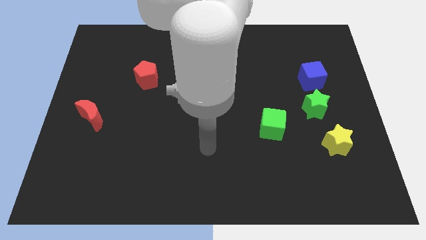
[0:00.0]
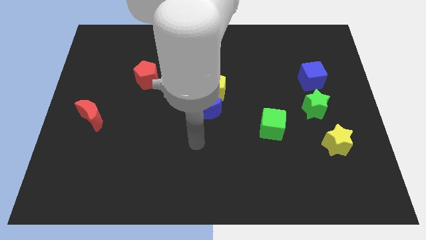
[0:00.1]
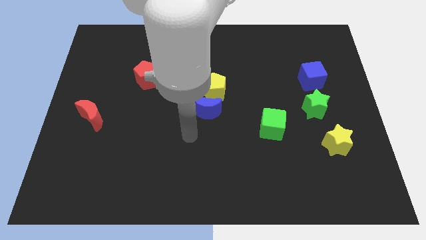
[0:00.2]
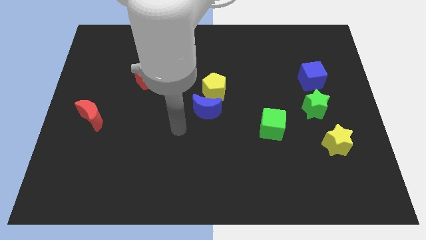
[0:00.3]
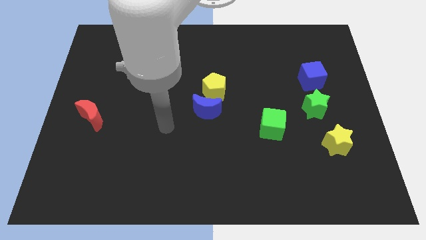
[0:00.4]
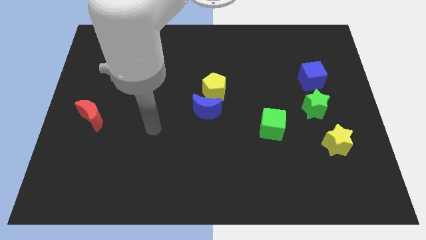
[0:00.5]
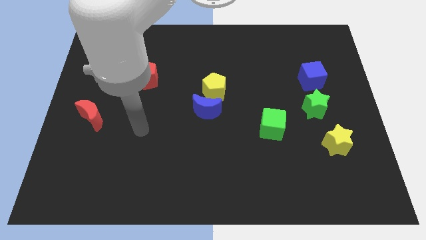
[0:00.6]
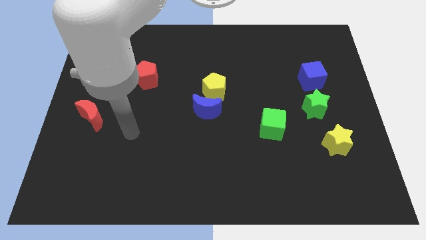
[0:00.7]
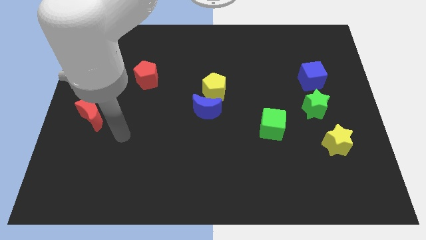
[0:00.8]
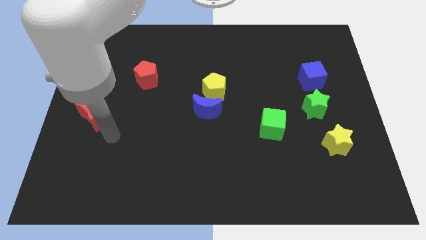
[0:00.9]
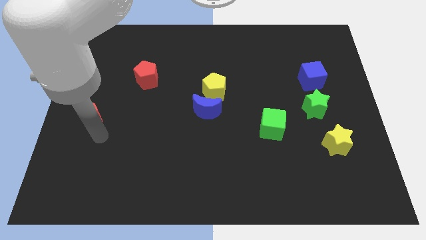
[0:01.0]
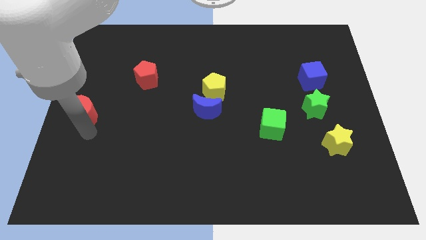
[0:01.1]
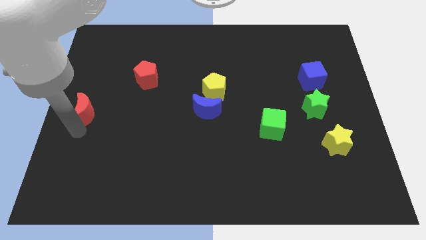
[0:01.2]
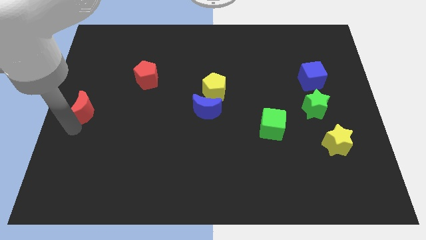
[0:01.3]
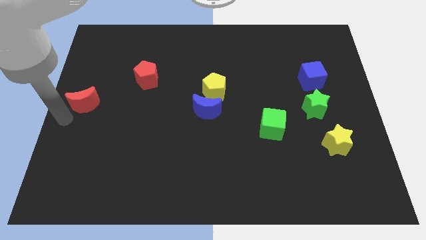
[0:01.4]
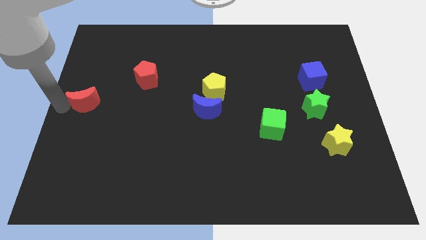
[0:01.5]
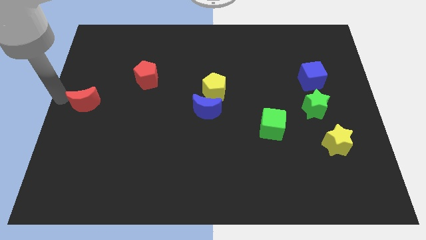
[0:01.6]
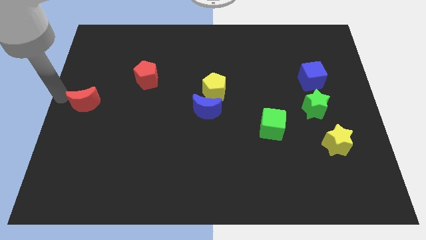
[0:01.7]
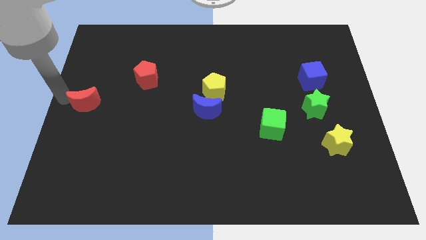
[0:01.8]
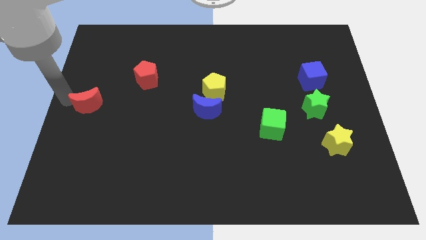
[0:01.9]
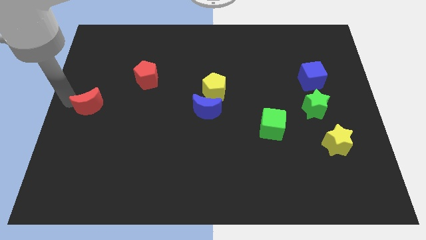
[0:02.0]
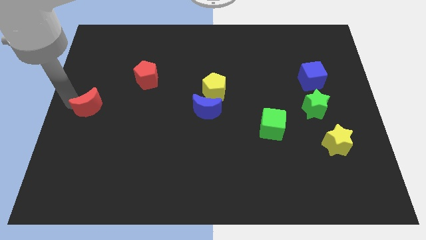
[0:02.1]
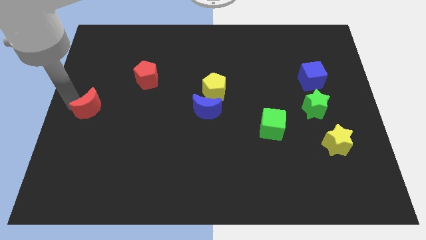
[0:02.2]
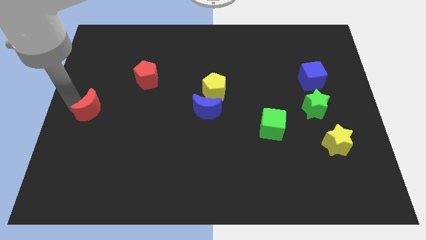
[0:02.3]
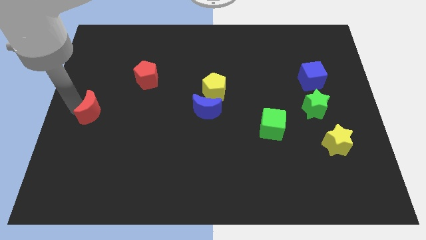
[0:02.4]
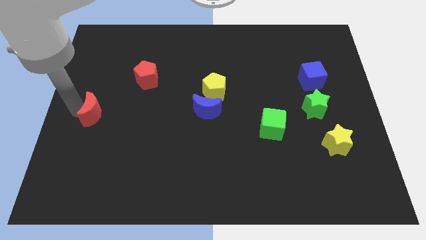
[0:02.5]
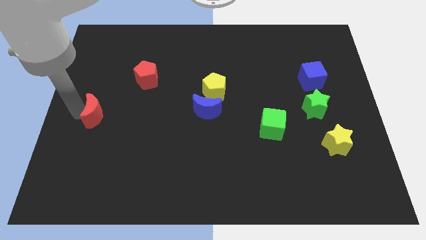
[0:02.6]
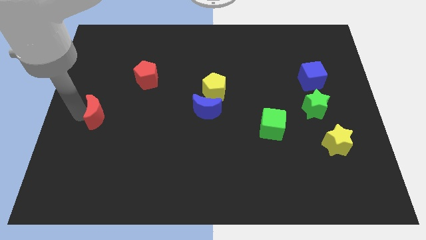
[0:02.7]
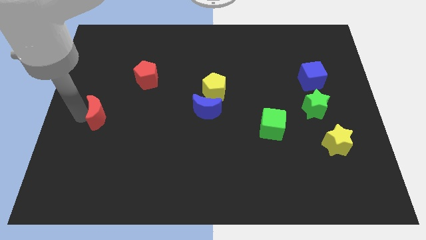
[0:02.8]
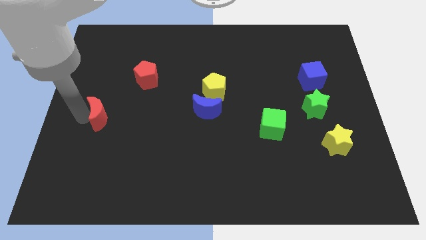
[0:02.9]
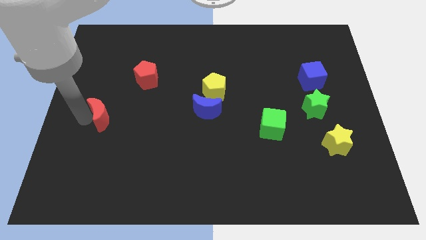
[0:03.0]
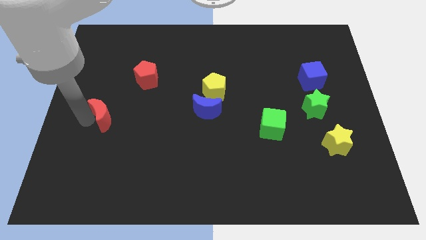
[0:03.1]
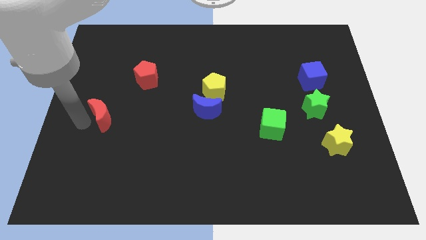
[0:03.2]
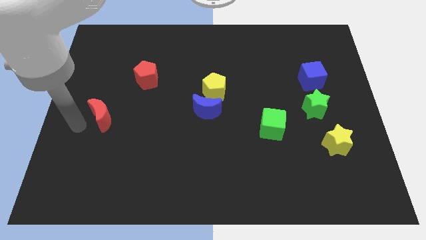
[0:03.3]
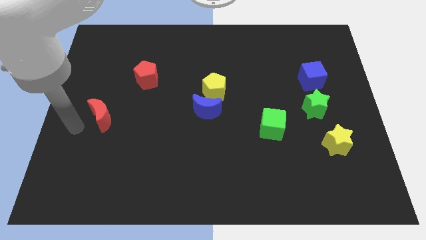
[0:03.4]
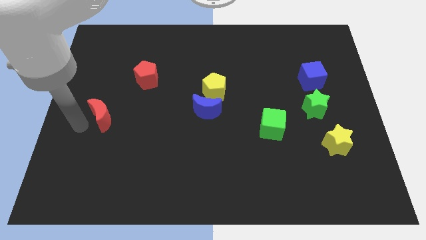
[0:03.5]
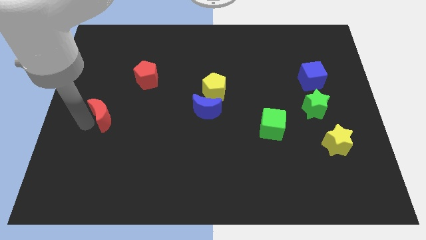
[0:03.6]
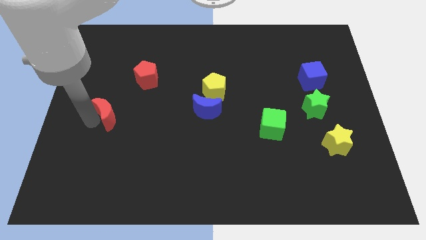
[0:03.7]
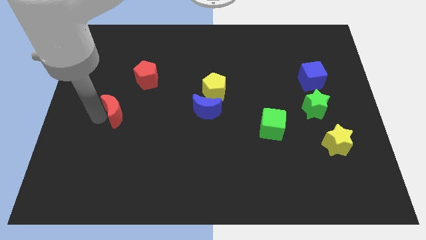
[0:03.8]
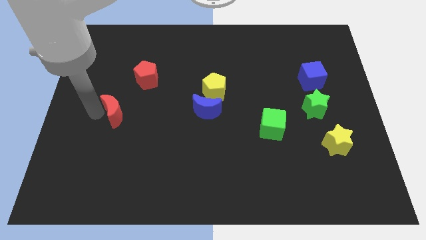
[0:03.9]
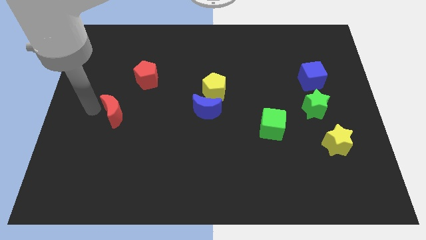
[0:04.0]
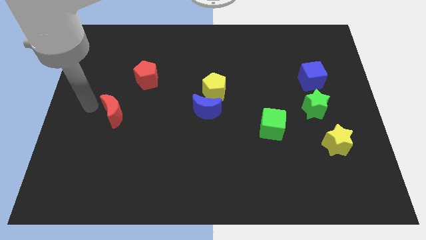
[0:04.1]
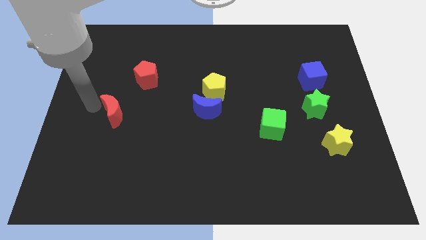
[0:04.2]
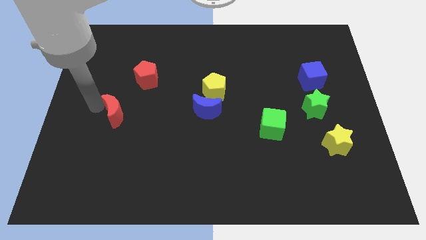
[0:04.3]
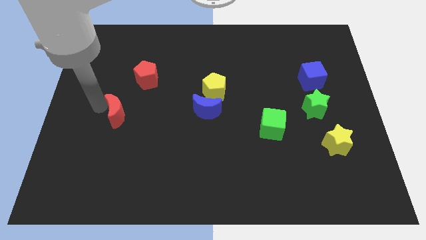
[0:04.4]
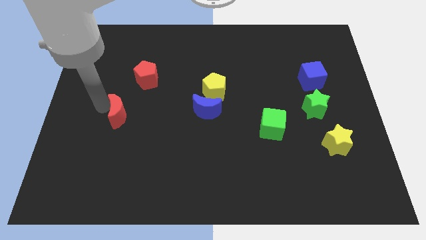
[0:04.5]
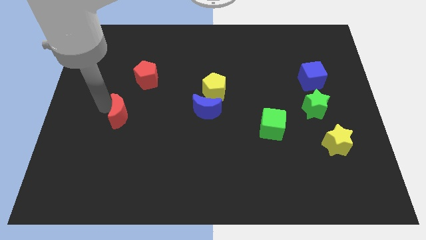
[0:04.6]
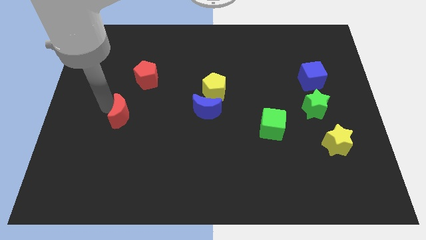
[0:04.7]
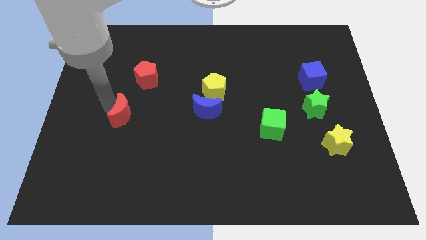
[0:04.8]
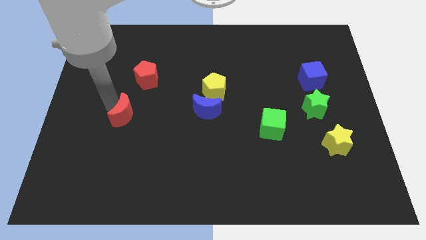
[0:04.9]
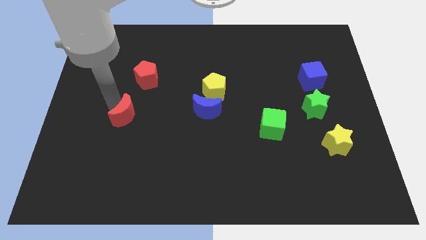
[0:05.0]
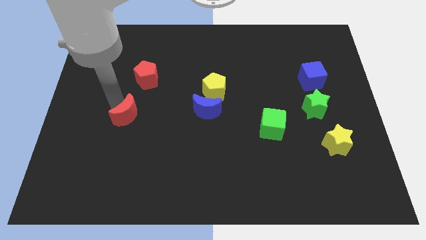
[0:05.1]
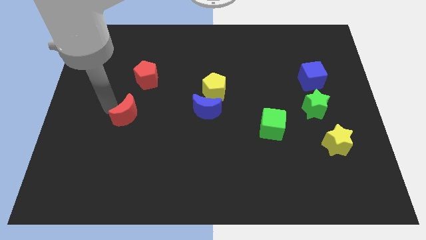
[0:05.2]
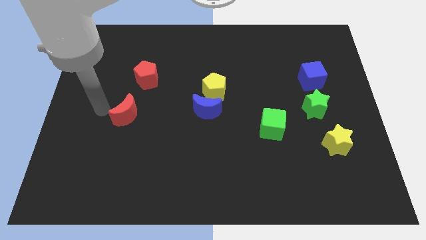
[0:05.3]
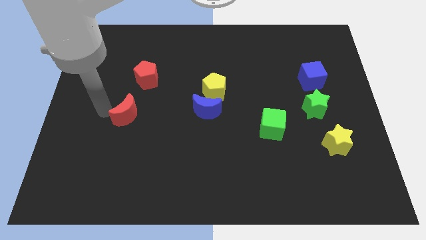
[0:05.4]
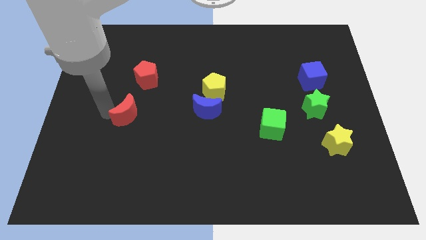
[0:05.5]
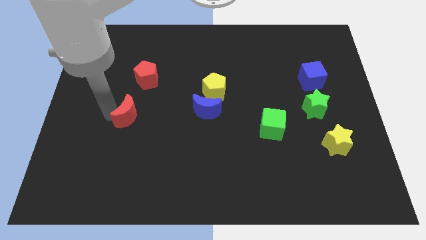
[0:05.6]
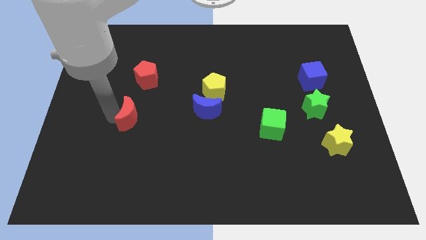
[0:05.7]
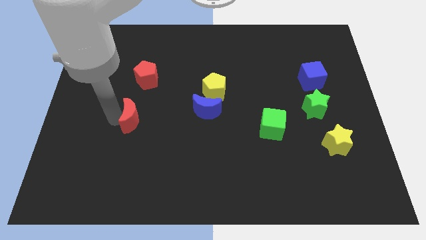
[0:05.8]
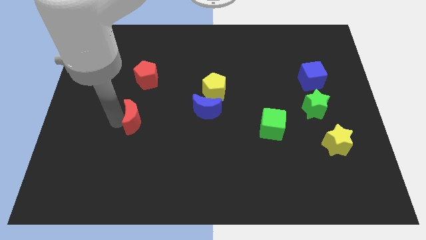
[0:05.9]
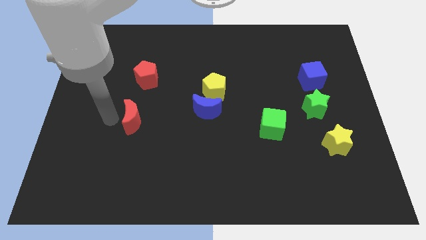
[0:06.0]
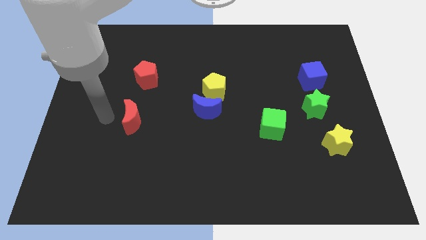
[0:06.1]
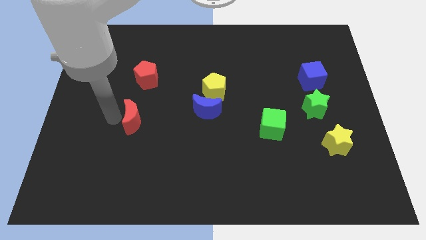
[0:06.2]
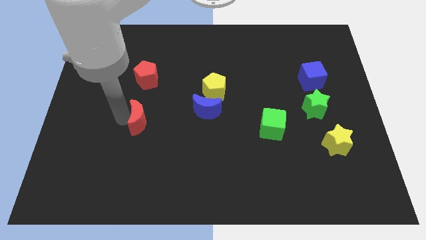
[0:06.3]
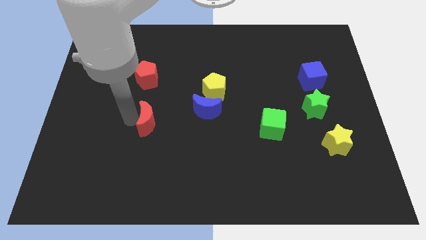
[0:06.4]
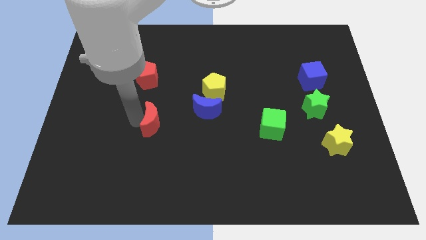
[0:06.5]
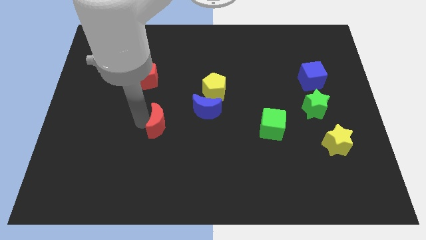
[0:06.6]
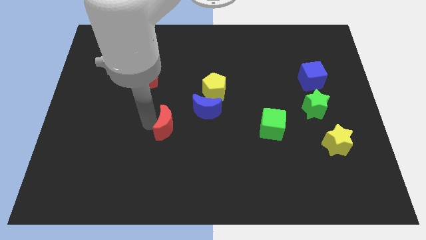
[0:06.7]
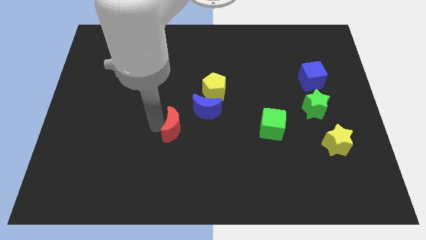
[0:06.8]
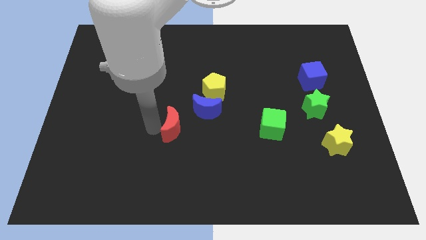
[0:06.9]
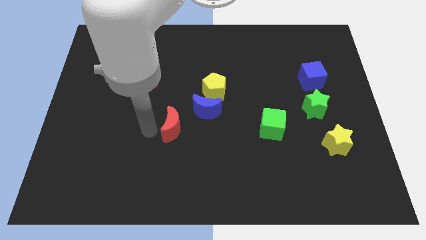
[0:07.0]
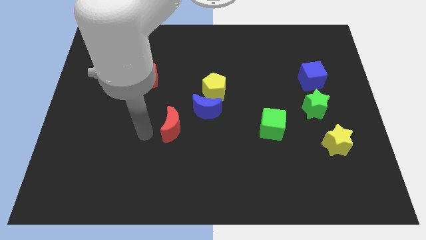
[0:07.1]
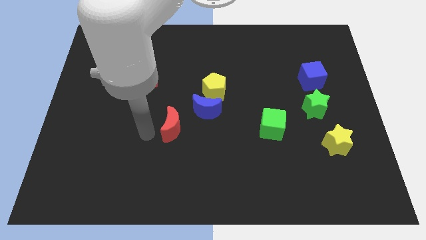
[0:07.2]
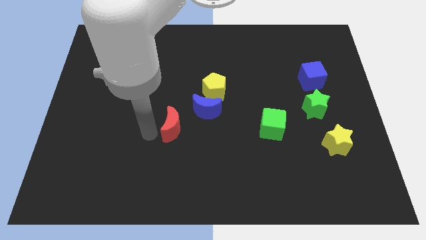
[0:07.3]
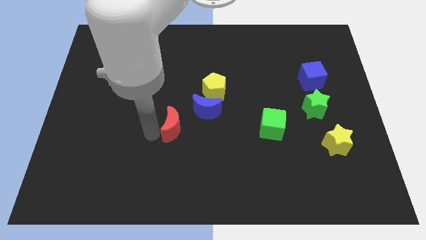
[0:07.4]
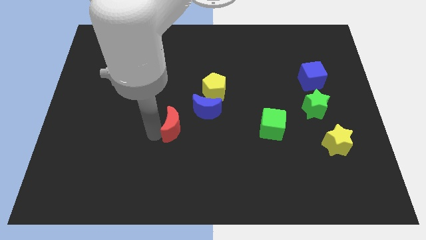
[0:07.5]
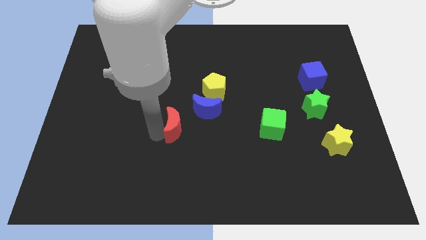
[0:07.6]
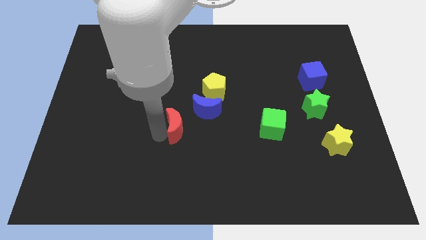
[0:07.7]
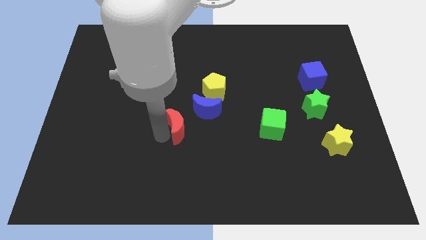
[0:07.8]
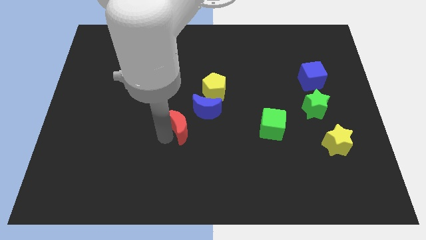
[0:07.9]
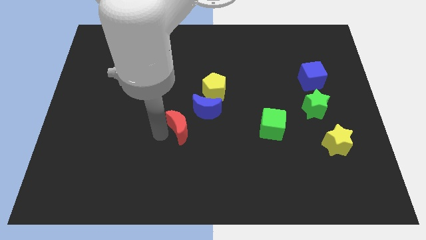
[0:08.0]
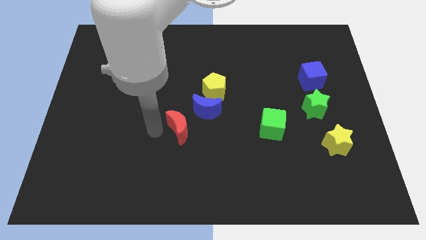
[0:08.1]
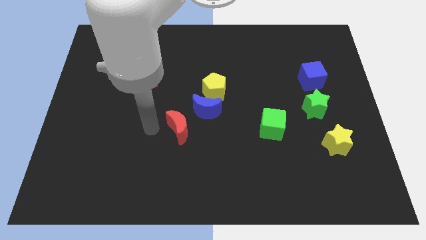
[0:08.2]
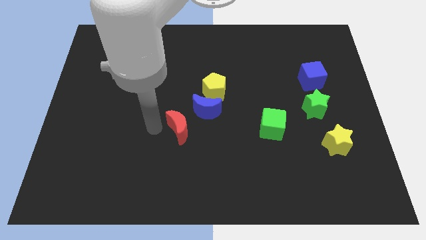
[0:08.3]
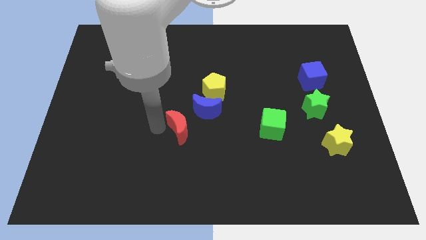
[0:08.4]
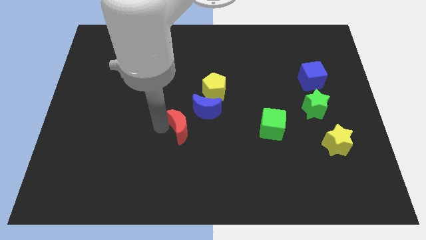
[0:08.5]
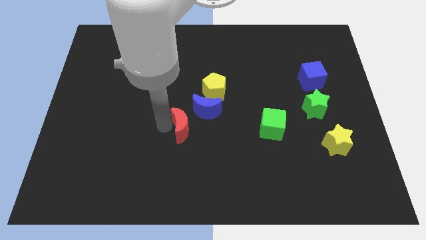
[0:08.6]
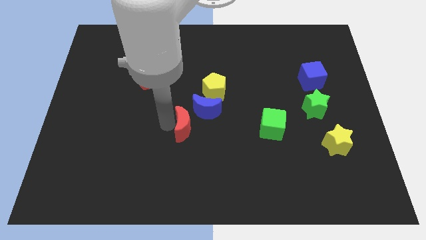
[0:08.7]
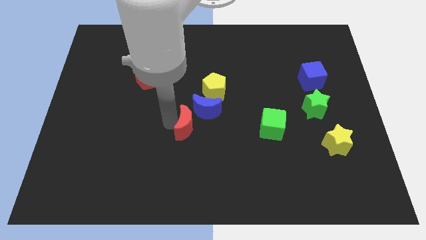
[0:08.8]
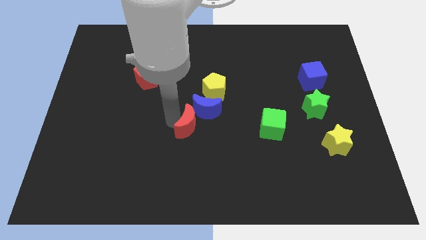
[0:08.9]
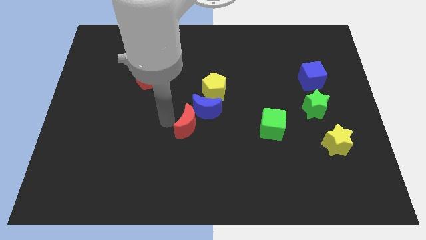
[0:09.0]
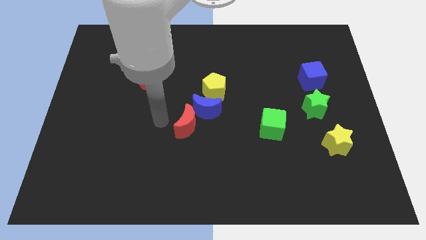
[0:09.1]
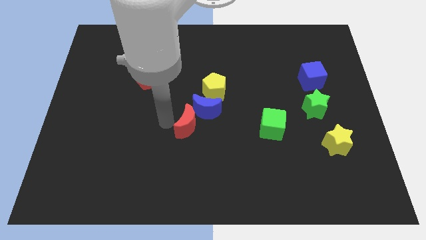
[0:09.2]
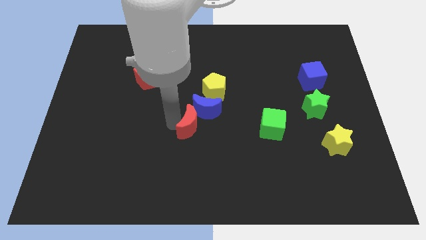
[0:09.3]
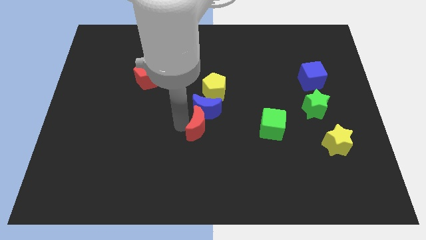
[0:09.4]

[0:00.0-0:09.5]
move the red moon to the bottom right side of the blue moon
